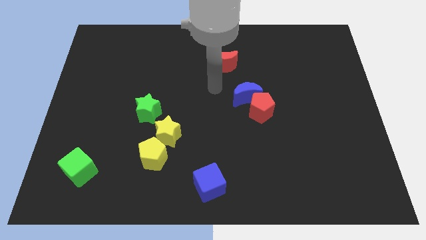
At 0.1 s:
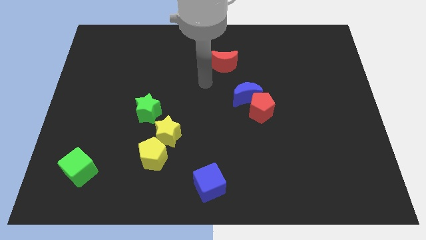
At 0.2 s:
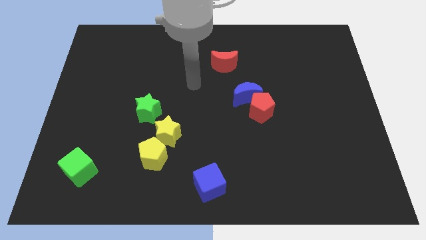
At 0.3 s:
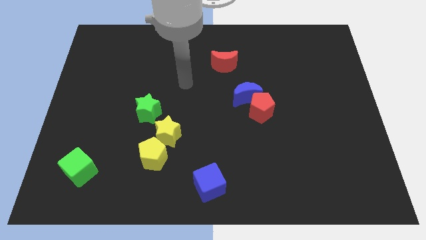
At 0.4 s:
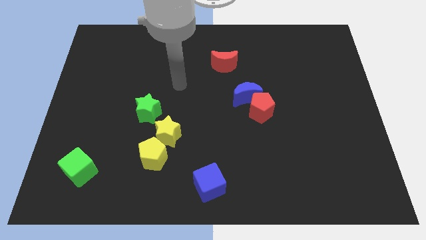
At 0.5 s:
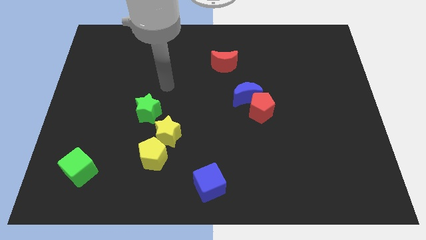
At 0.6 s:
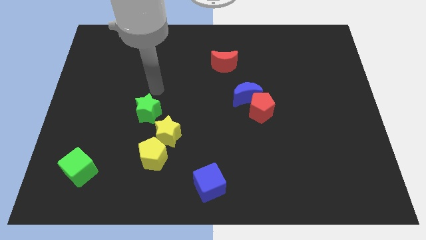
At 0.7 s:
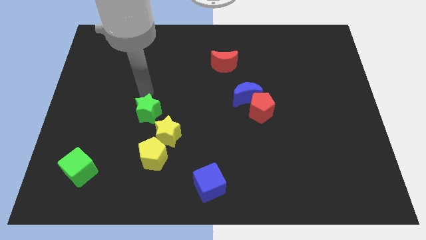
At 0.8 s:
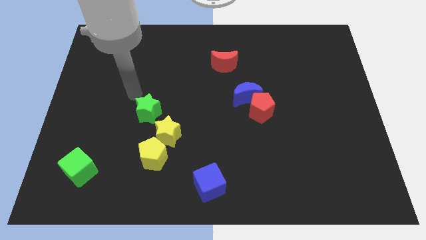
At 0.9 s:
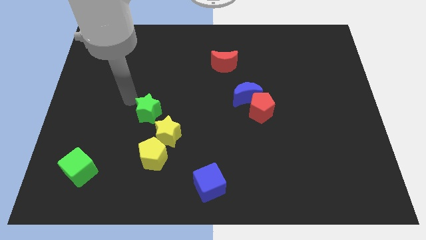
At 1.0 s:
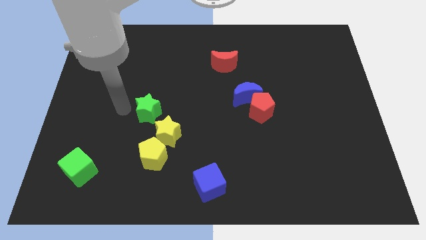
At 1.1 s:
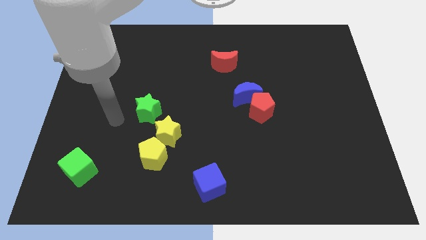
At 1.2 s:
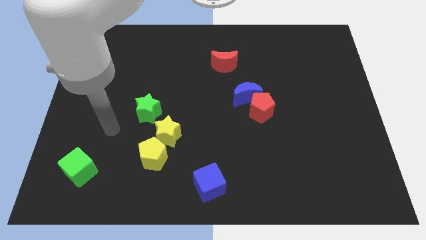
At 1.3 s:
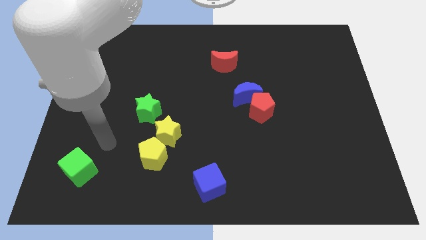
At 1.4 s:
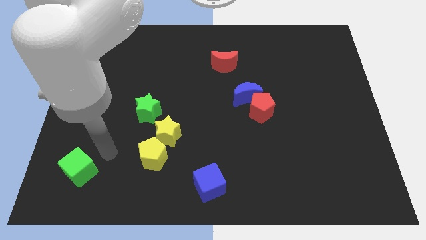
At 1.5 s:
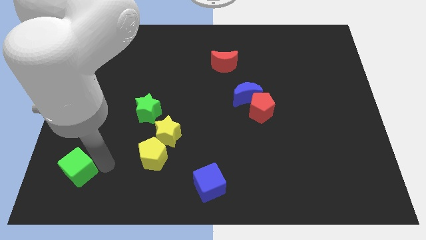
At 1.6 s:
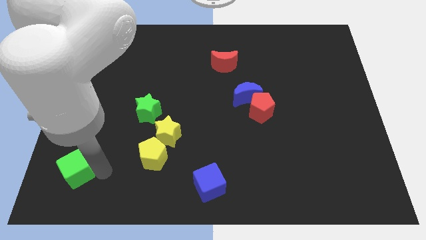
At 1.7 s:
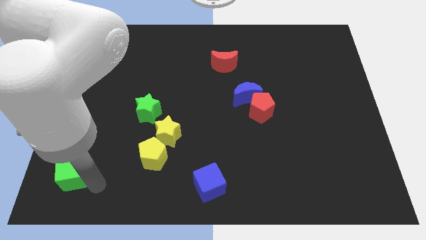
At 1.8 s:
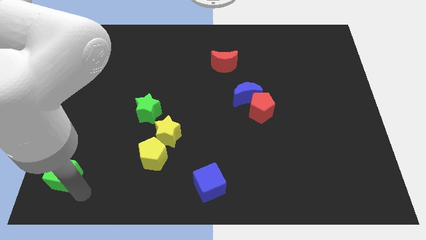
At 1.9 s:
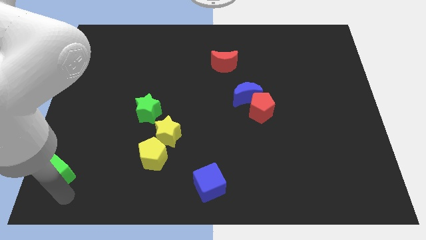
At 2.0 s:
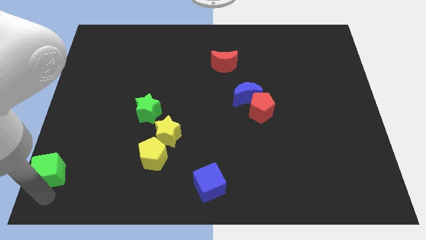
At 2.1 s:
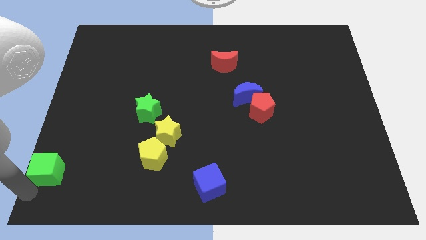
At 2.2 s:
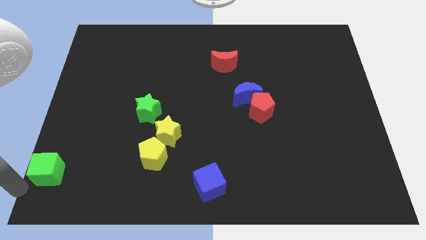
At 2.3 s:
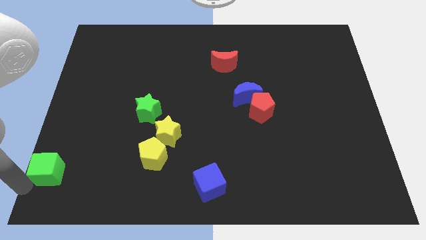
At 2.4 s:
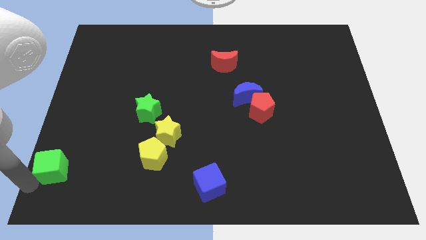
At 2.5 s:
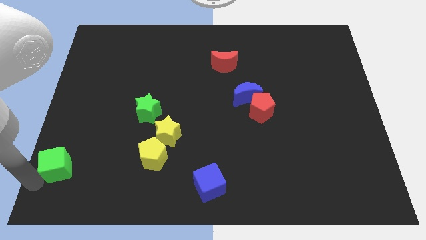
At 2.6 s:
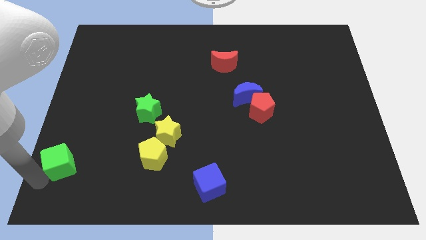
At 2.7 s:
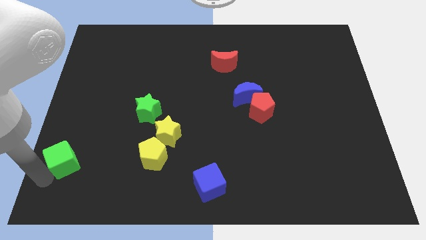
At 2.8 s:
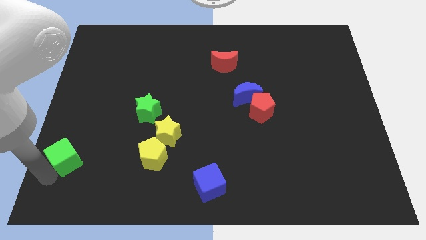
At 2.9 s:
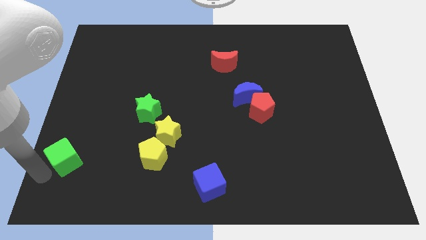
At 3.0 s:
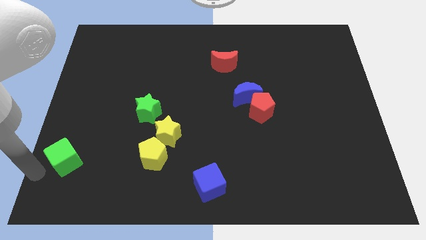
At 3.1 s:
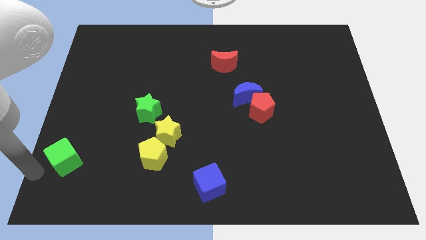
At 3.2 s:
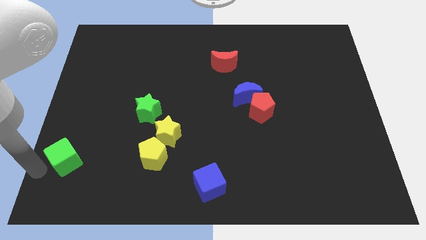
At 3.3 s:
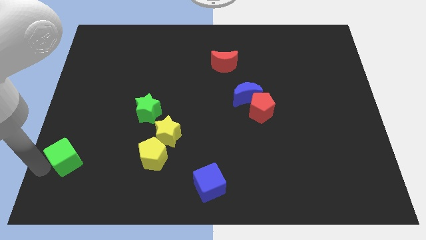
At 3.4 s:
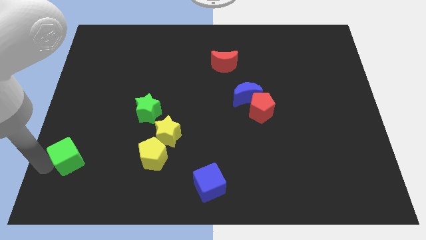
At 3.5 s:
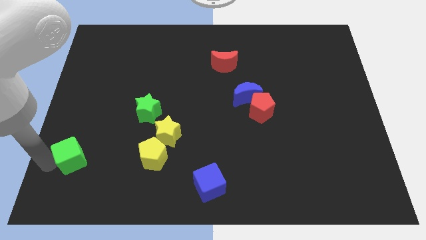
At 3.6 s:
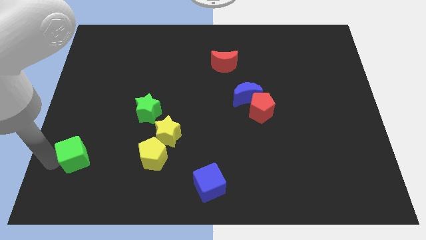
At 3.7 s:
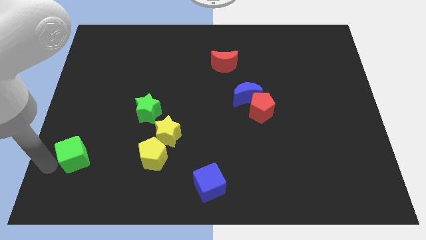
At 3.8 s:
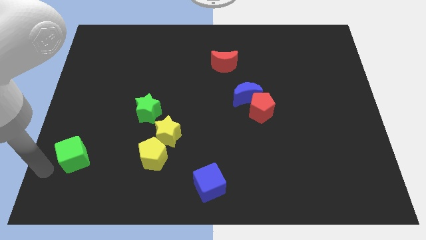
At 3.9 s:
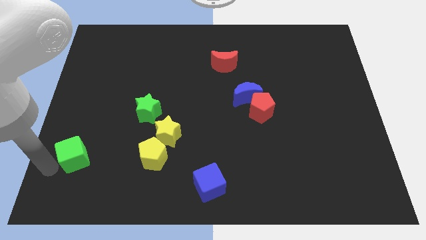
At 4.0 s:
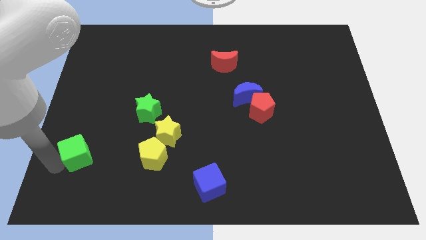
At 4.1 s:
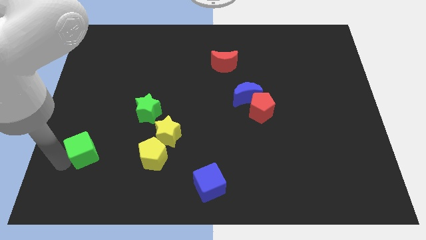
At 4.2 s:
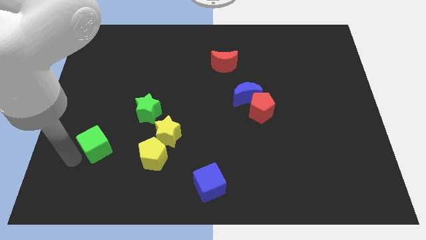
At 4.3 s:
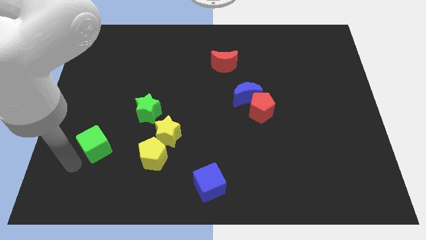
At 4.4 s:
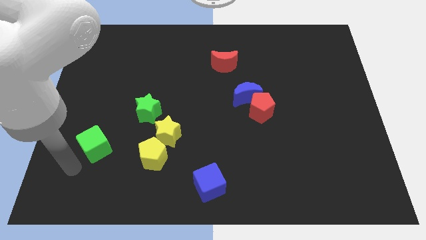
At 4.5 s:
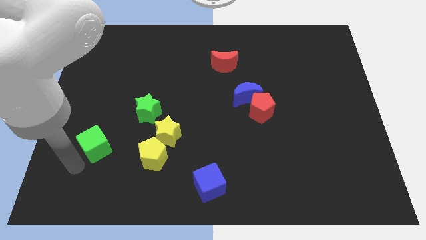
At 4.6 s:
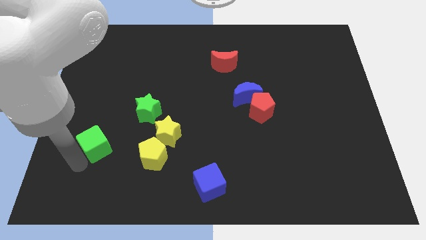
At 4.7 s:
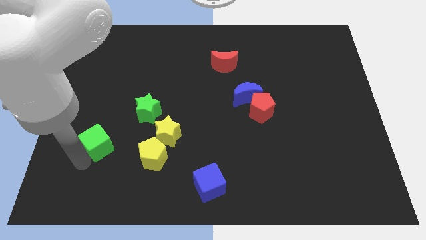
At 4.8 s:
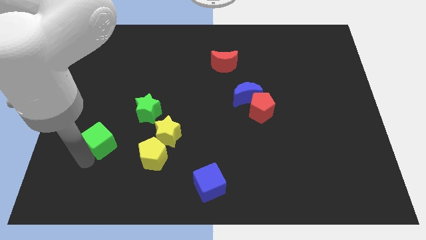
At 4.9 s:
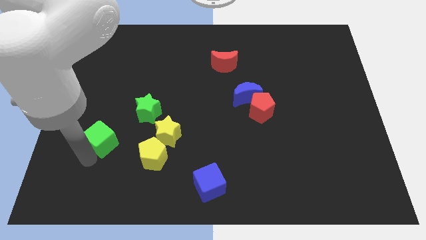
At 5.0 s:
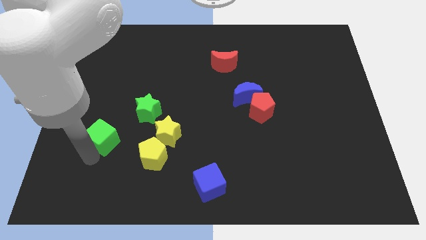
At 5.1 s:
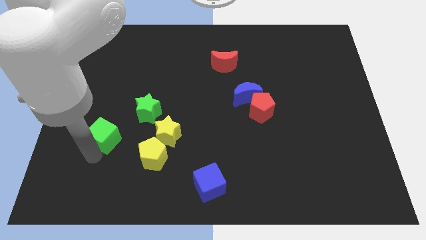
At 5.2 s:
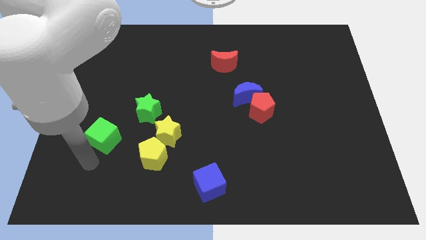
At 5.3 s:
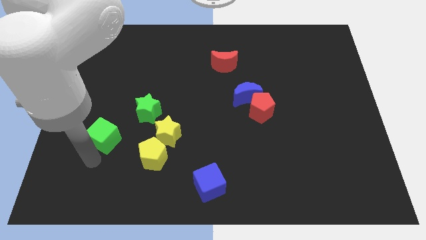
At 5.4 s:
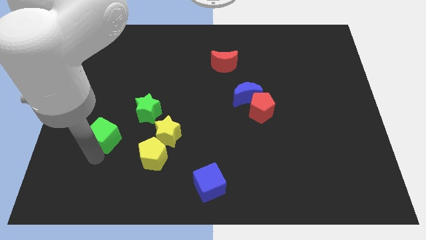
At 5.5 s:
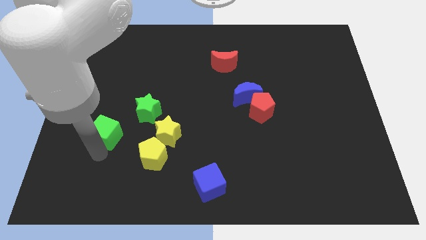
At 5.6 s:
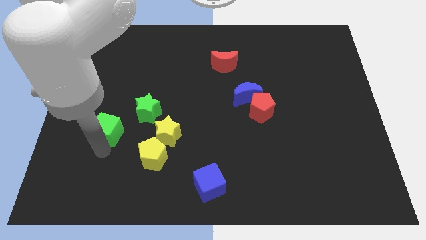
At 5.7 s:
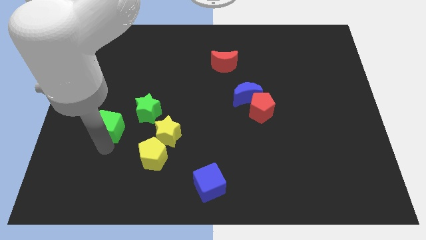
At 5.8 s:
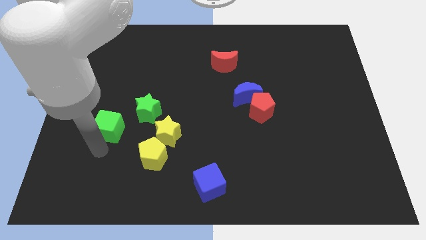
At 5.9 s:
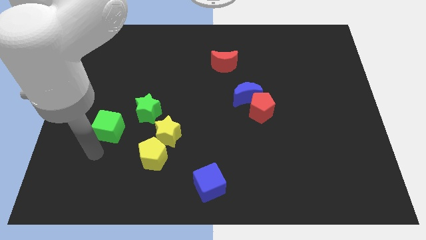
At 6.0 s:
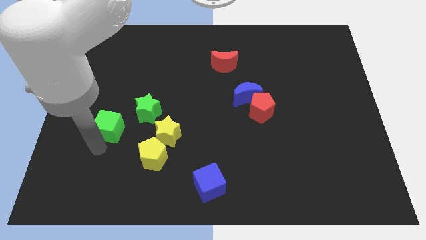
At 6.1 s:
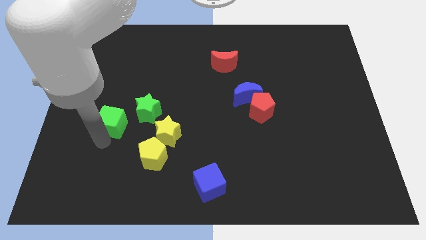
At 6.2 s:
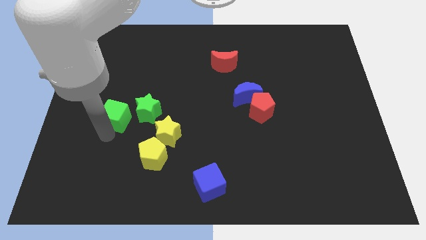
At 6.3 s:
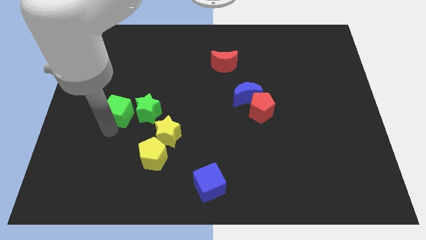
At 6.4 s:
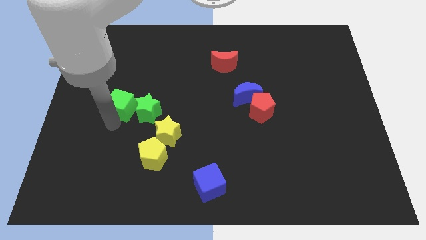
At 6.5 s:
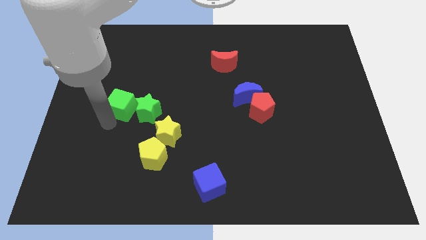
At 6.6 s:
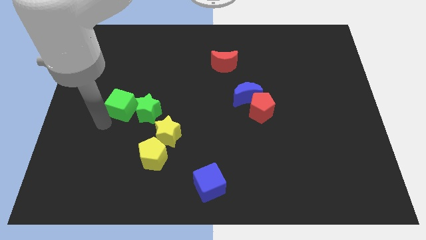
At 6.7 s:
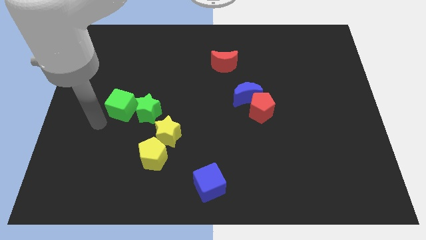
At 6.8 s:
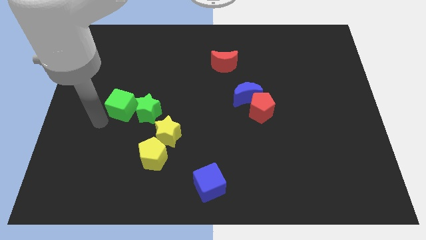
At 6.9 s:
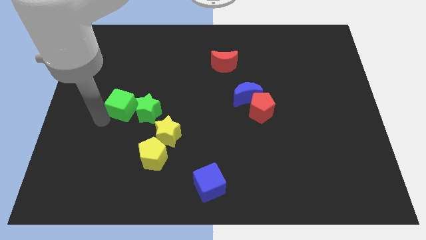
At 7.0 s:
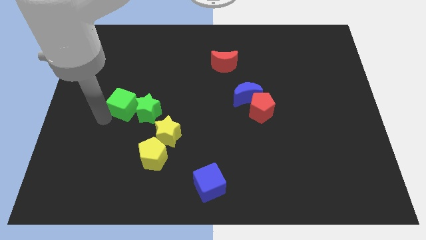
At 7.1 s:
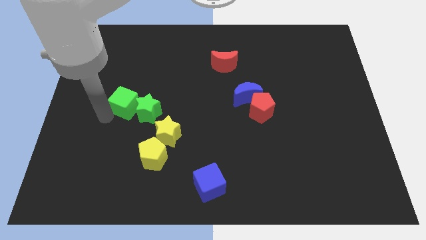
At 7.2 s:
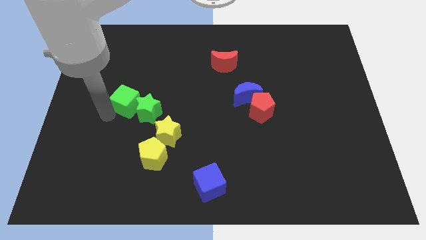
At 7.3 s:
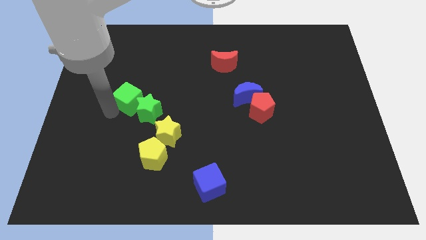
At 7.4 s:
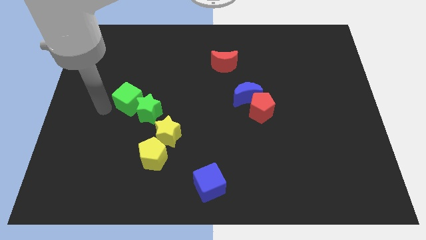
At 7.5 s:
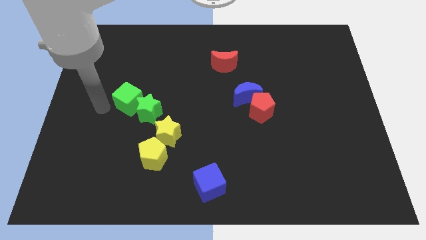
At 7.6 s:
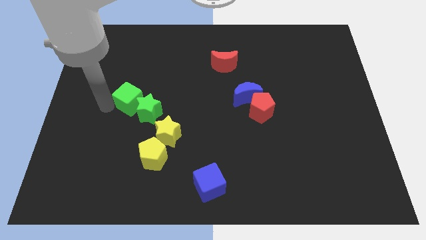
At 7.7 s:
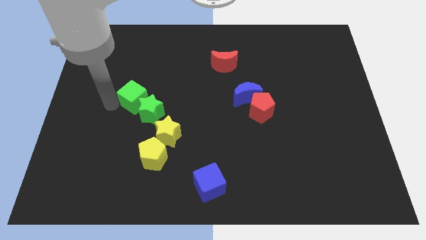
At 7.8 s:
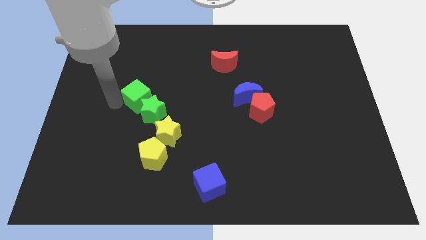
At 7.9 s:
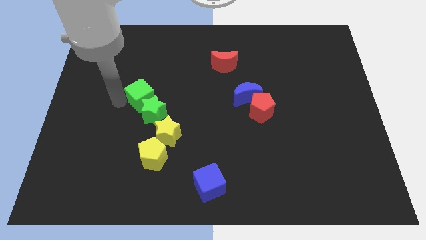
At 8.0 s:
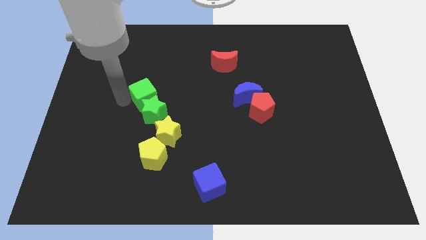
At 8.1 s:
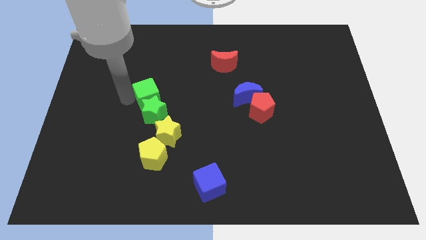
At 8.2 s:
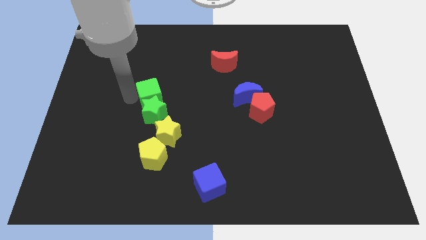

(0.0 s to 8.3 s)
push the green cube diagonally up and to the right of the green star
